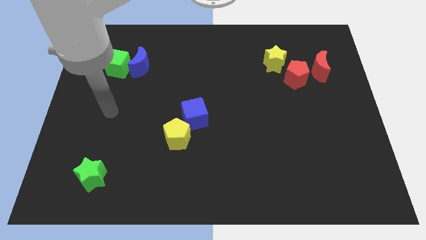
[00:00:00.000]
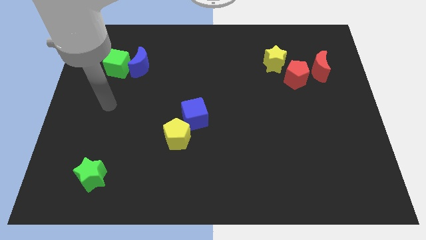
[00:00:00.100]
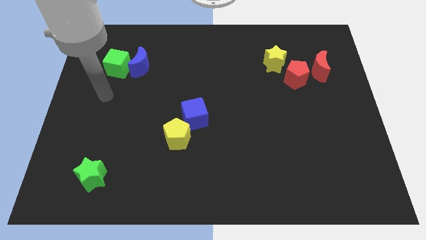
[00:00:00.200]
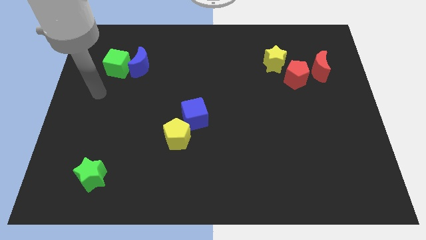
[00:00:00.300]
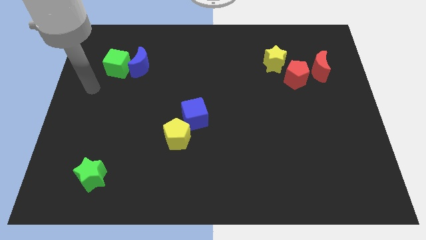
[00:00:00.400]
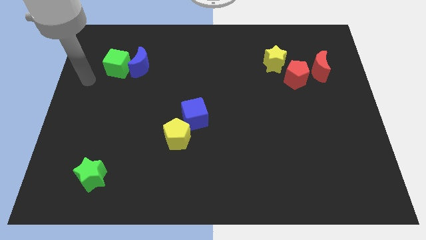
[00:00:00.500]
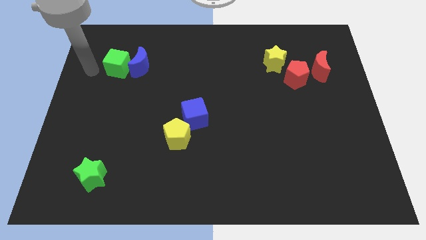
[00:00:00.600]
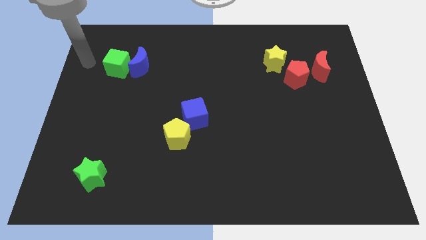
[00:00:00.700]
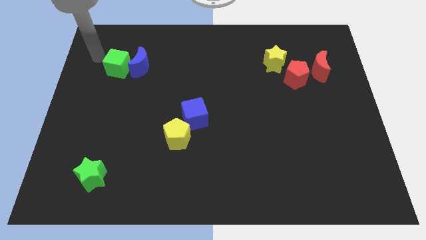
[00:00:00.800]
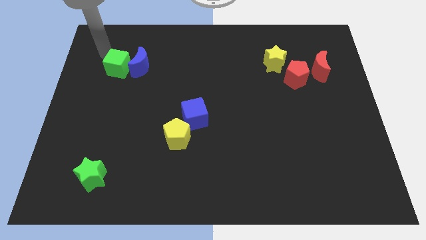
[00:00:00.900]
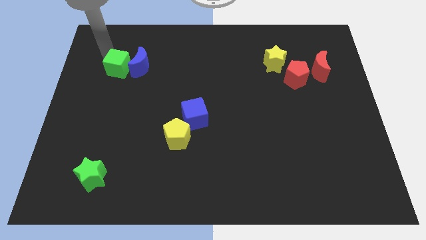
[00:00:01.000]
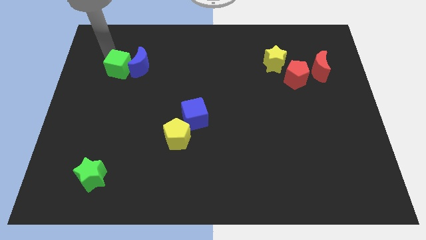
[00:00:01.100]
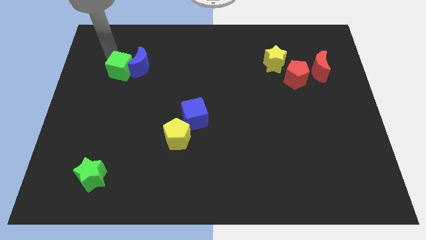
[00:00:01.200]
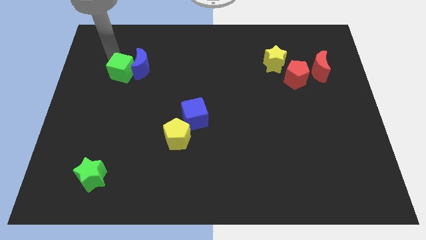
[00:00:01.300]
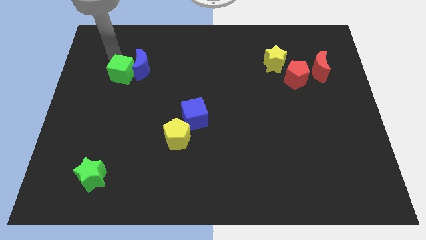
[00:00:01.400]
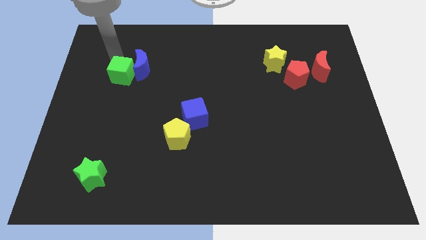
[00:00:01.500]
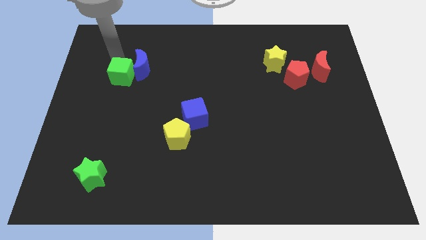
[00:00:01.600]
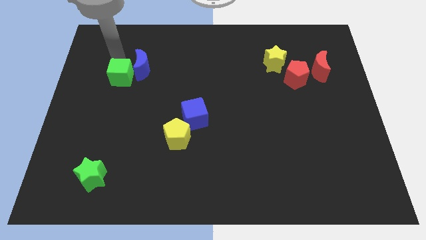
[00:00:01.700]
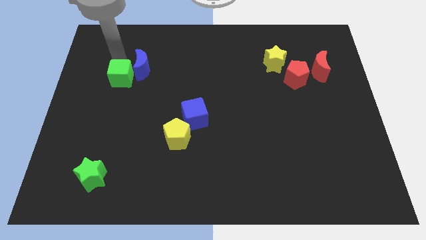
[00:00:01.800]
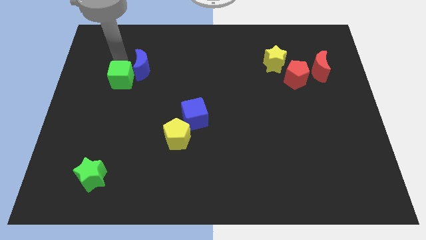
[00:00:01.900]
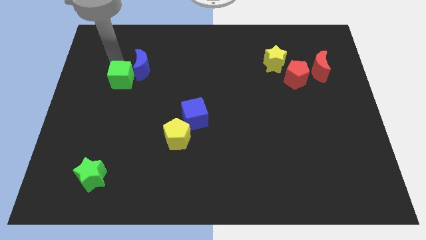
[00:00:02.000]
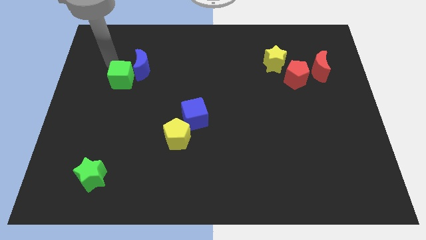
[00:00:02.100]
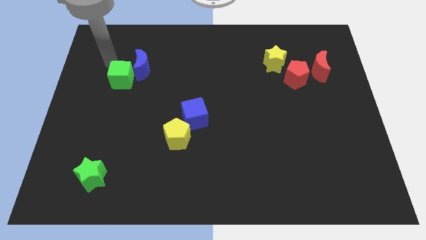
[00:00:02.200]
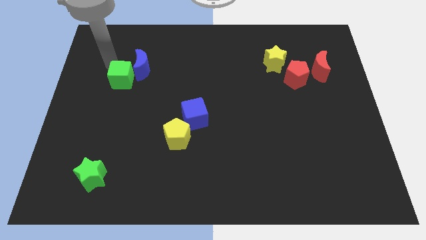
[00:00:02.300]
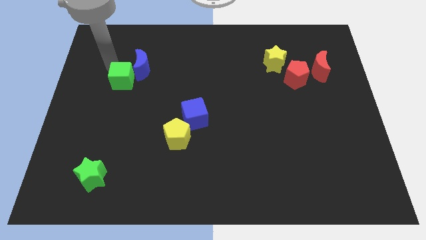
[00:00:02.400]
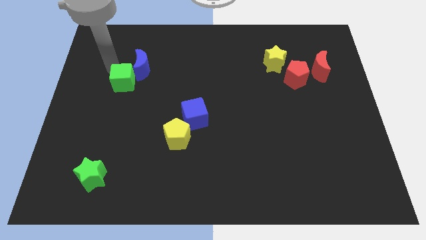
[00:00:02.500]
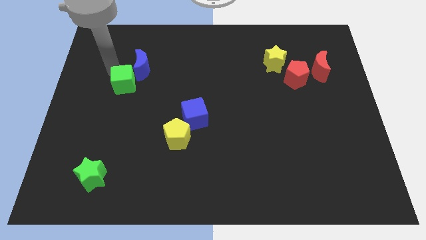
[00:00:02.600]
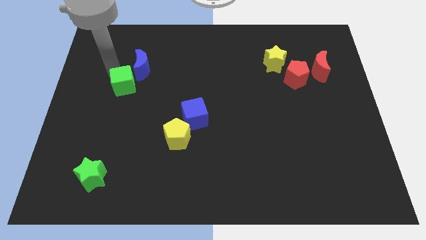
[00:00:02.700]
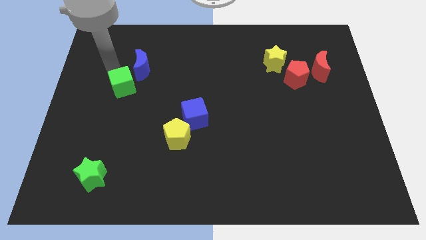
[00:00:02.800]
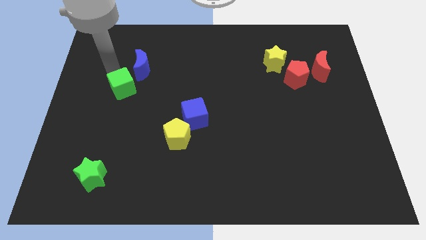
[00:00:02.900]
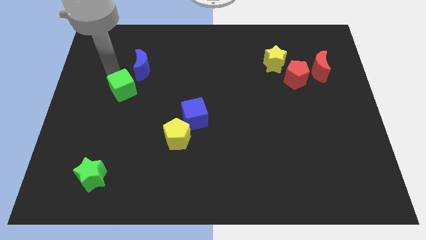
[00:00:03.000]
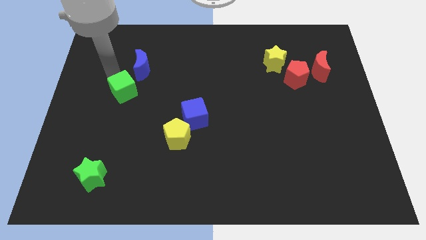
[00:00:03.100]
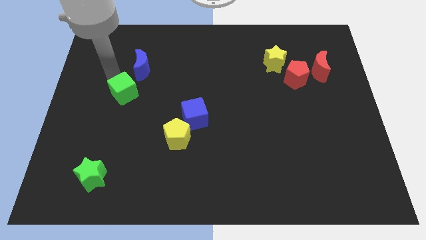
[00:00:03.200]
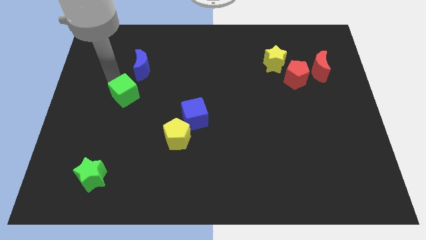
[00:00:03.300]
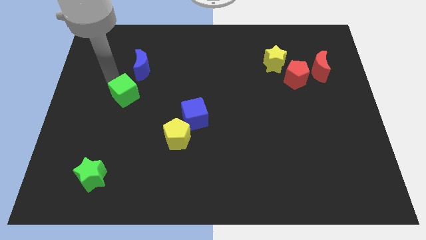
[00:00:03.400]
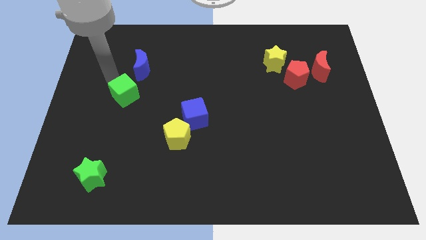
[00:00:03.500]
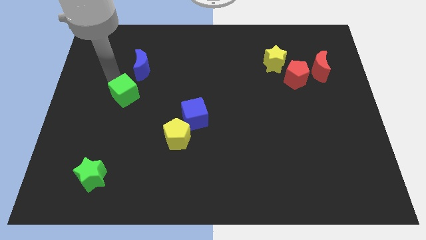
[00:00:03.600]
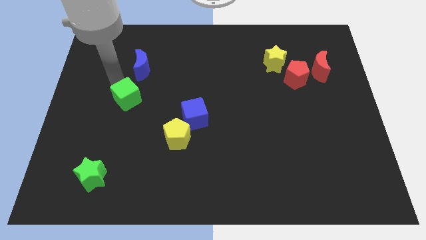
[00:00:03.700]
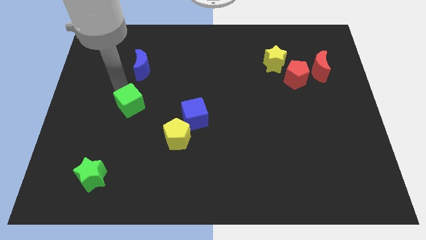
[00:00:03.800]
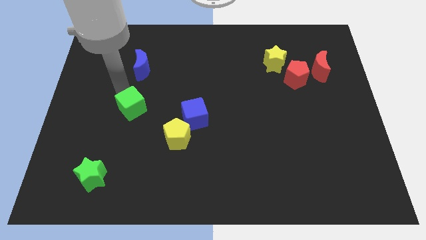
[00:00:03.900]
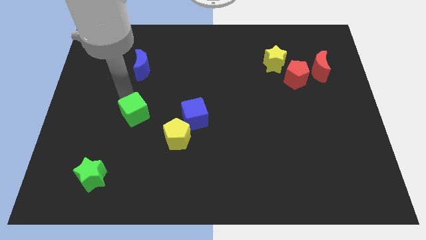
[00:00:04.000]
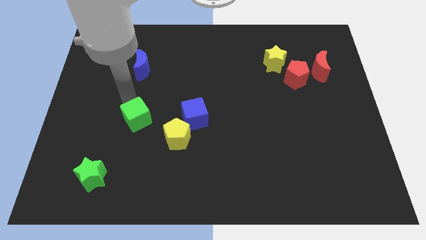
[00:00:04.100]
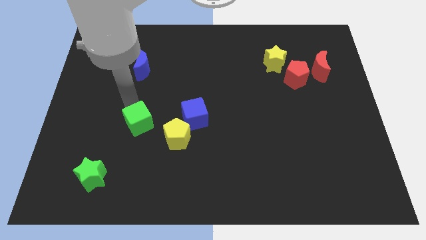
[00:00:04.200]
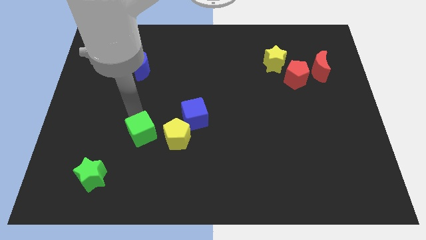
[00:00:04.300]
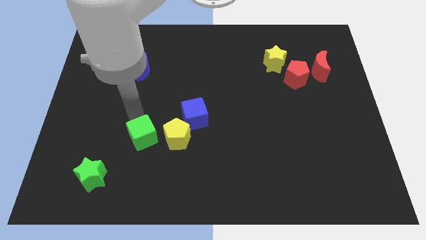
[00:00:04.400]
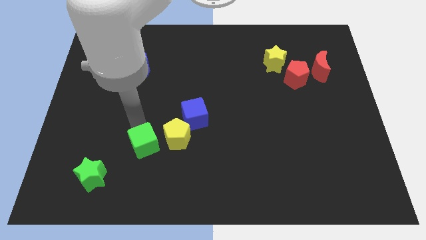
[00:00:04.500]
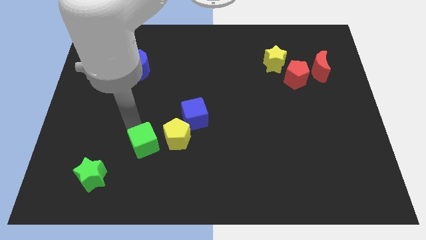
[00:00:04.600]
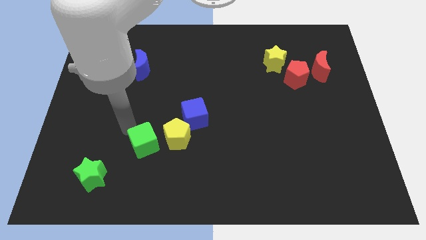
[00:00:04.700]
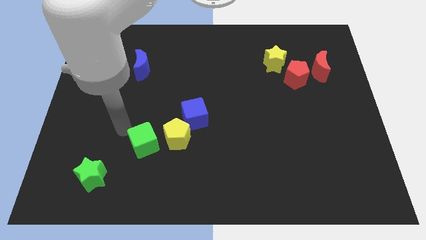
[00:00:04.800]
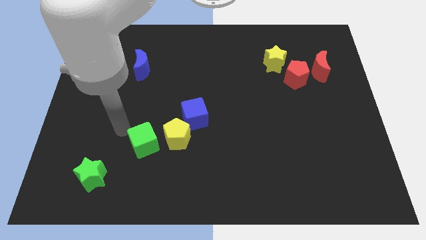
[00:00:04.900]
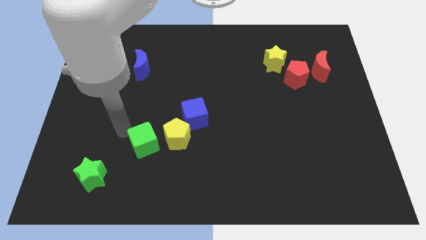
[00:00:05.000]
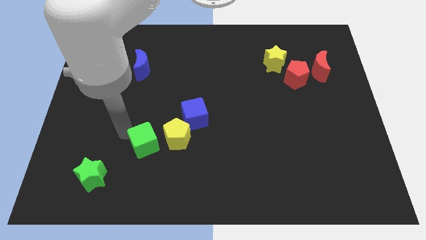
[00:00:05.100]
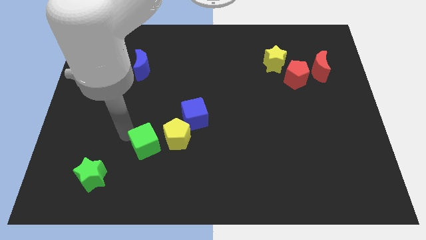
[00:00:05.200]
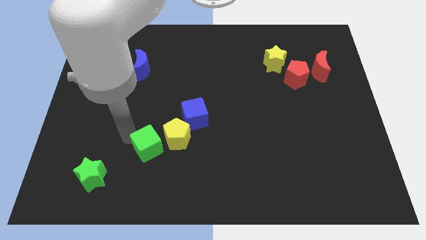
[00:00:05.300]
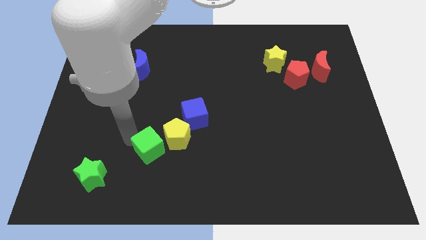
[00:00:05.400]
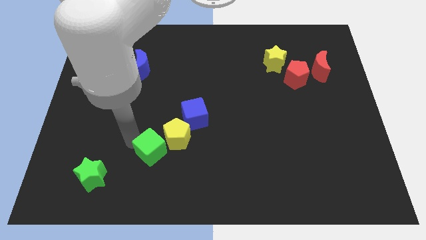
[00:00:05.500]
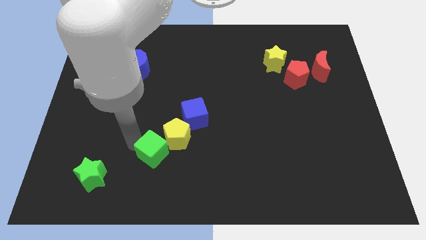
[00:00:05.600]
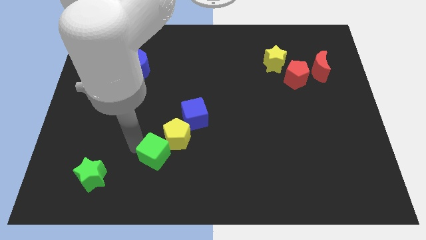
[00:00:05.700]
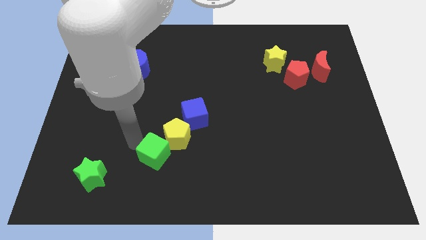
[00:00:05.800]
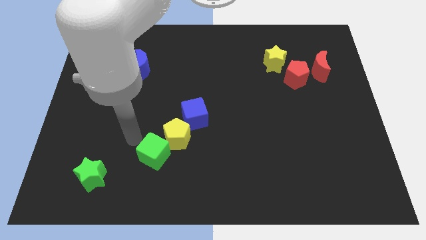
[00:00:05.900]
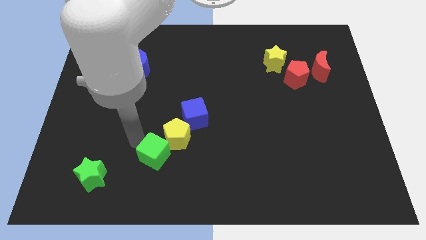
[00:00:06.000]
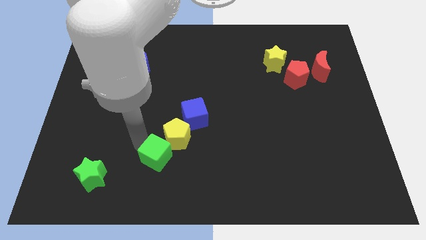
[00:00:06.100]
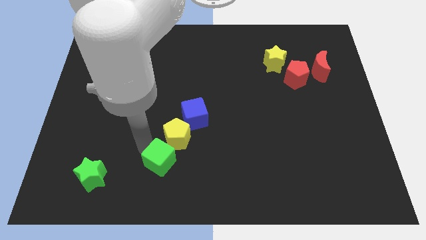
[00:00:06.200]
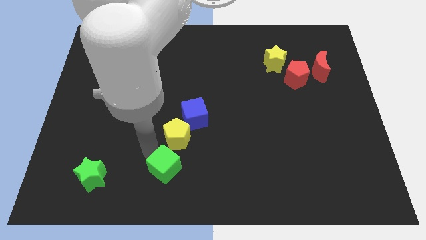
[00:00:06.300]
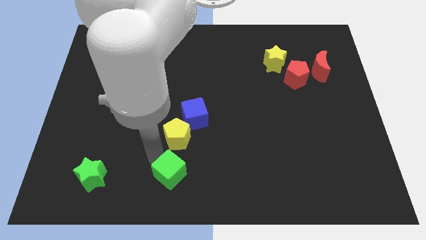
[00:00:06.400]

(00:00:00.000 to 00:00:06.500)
push the green cube to the bottom

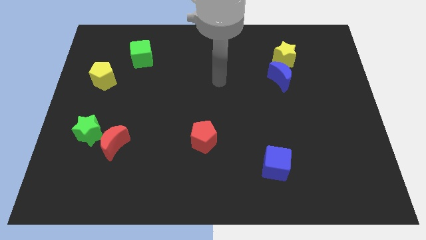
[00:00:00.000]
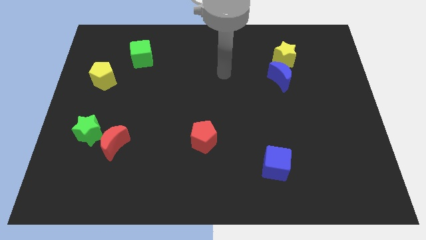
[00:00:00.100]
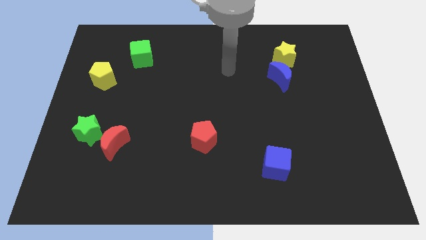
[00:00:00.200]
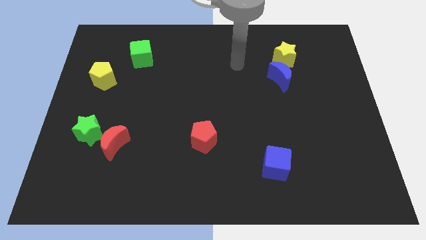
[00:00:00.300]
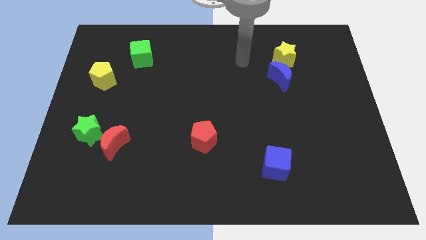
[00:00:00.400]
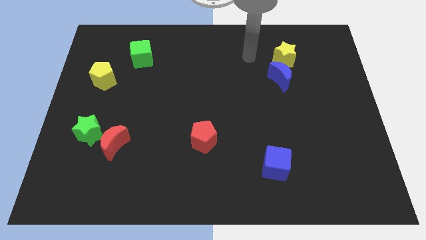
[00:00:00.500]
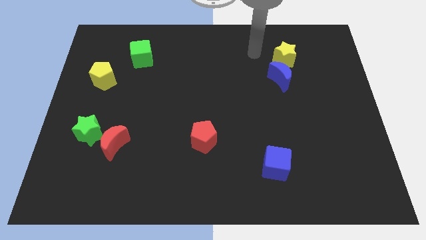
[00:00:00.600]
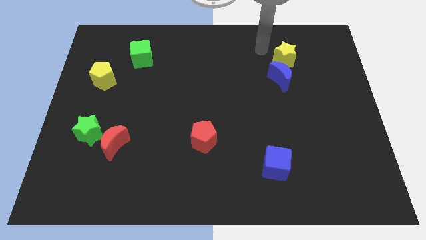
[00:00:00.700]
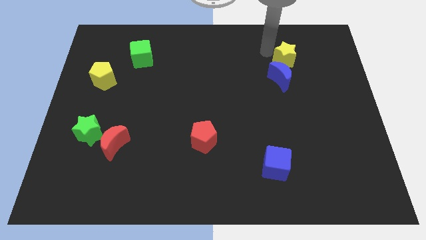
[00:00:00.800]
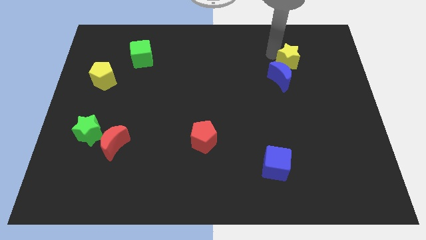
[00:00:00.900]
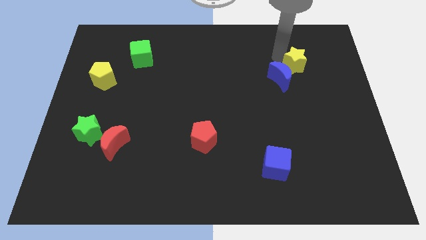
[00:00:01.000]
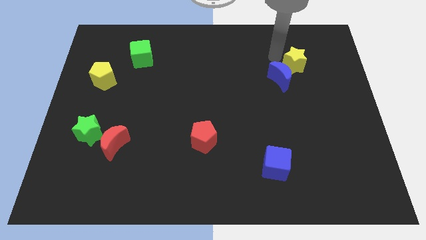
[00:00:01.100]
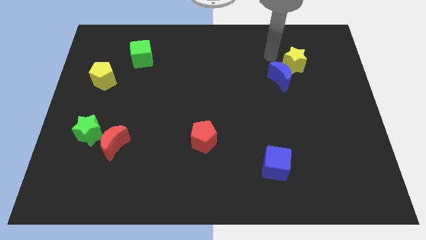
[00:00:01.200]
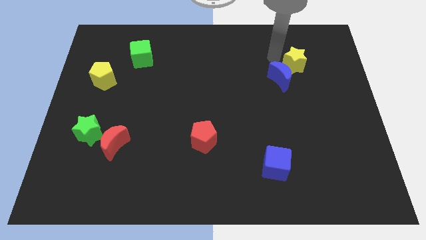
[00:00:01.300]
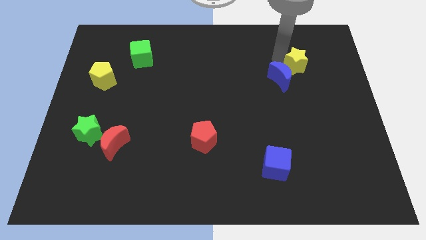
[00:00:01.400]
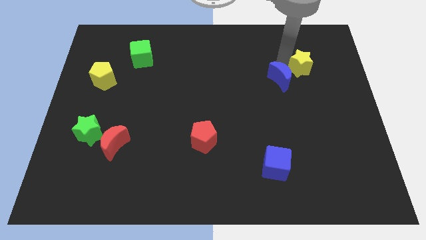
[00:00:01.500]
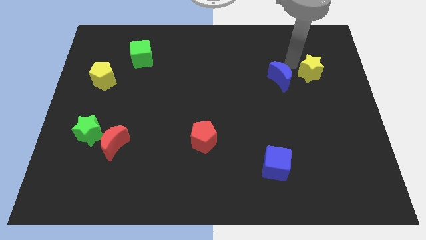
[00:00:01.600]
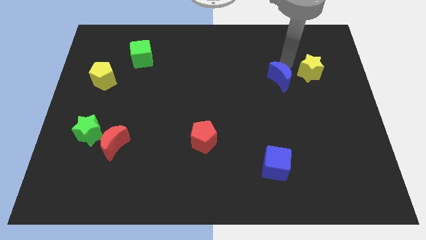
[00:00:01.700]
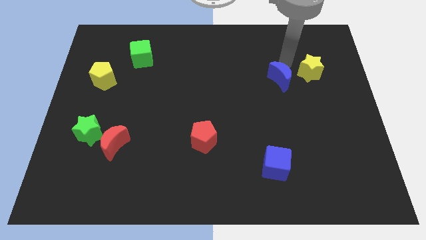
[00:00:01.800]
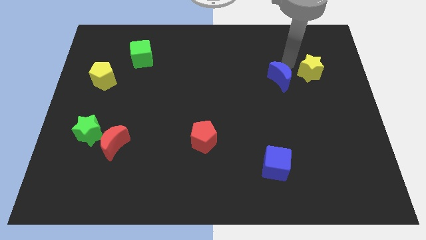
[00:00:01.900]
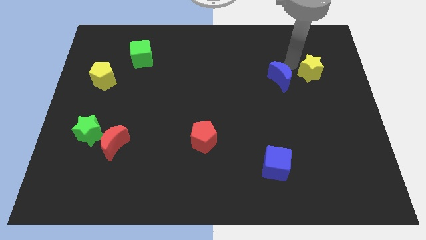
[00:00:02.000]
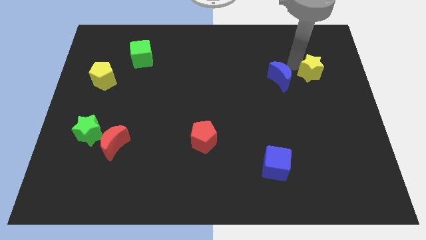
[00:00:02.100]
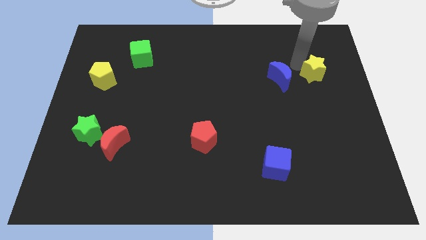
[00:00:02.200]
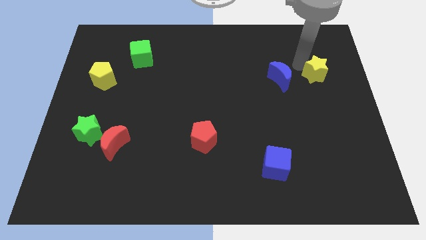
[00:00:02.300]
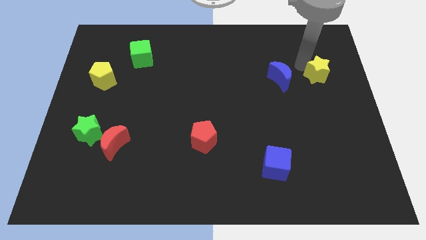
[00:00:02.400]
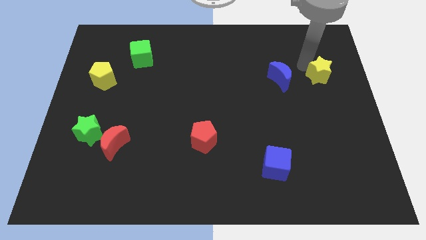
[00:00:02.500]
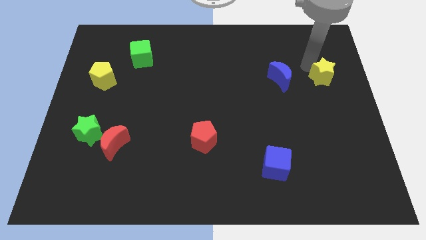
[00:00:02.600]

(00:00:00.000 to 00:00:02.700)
push the yellow star to the right side
